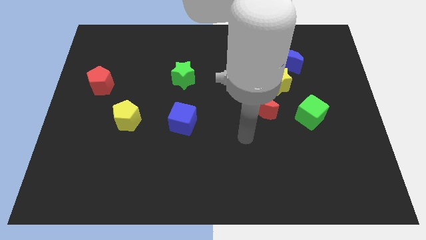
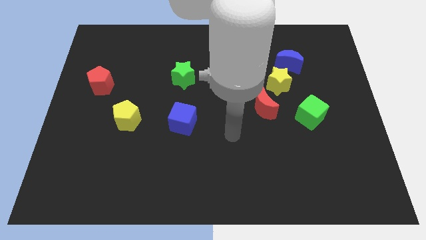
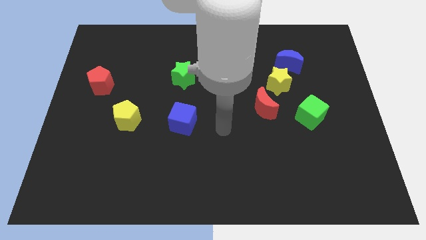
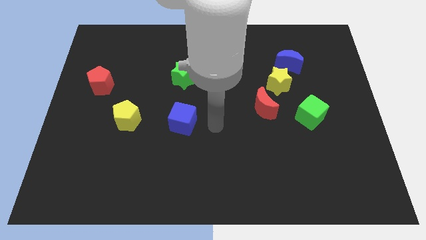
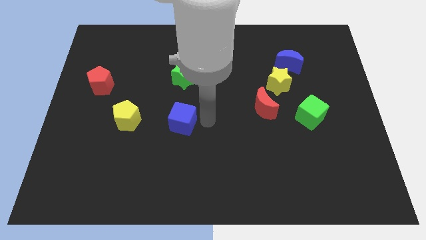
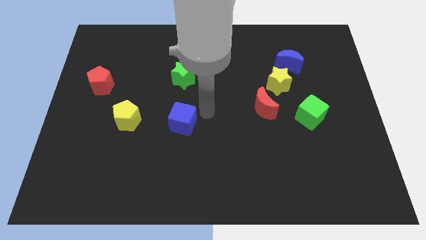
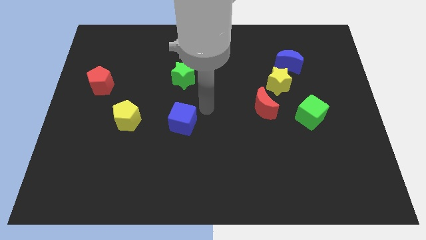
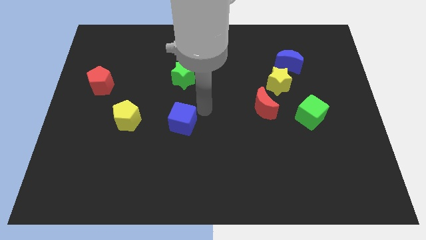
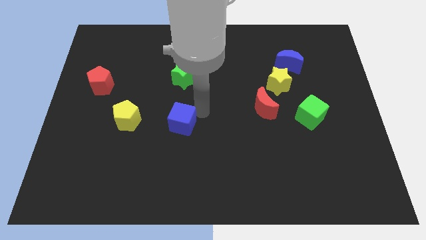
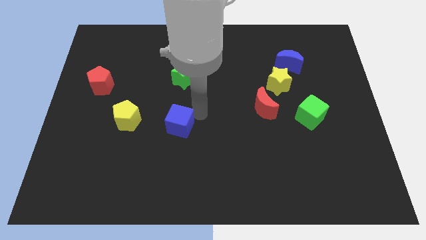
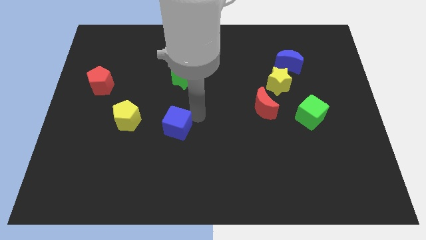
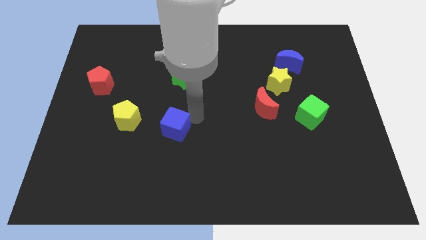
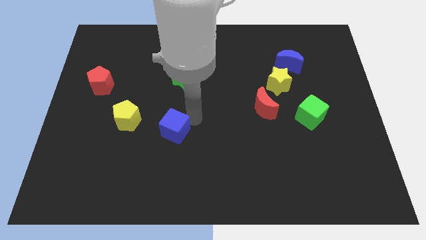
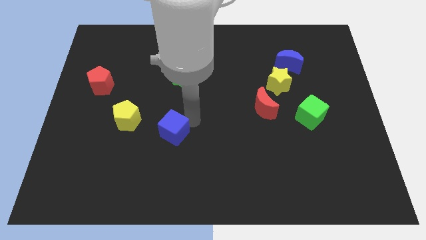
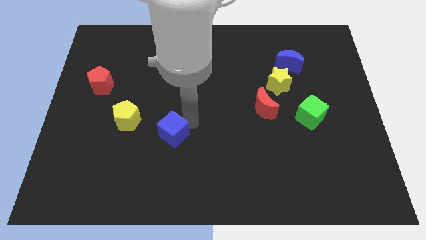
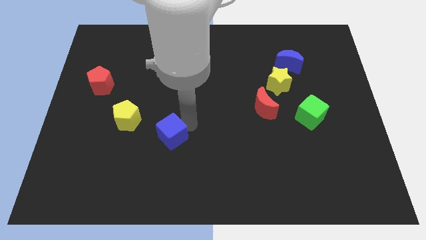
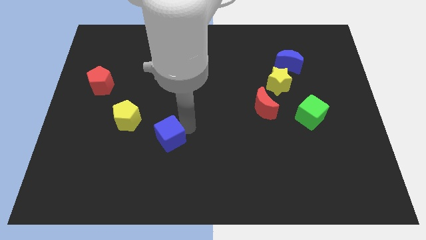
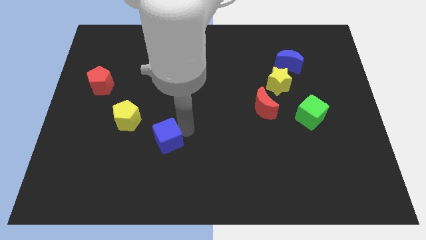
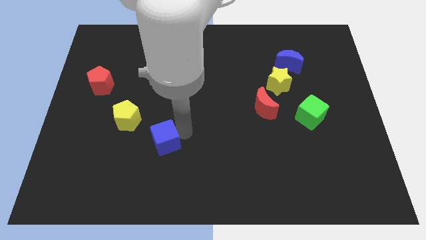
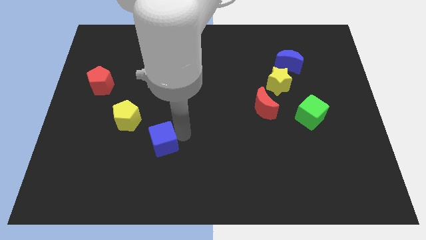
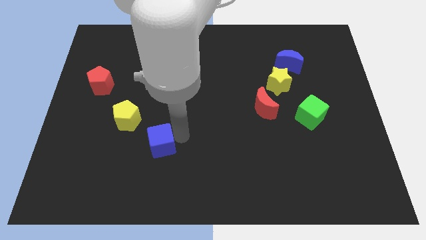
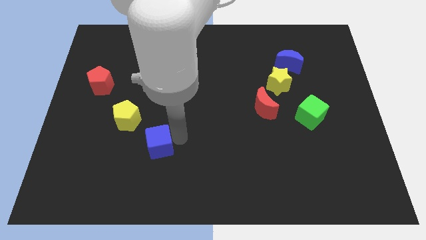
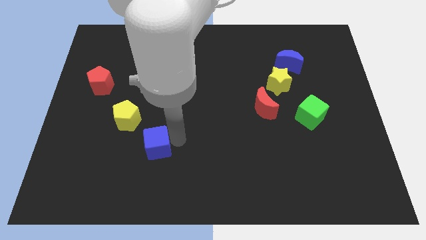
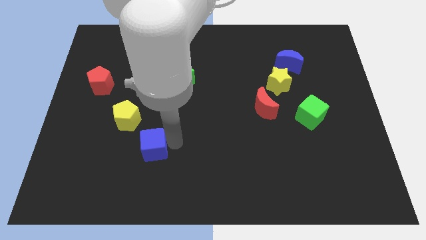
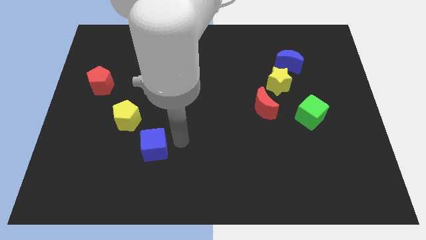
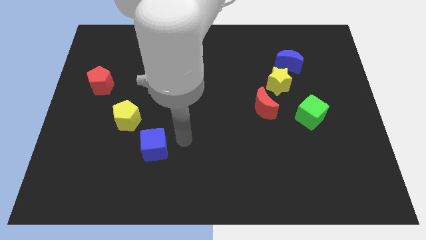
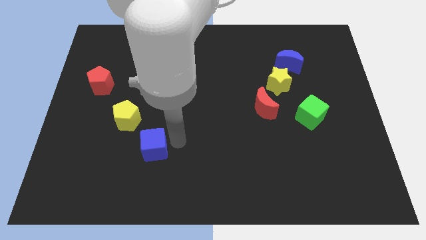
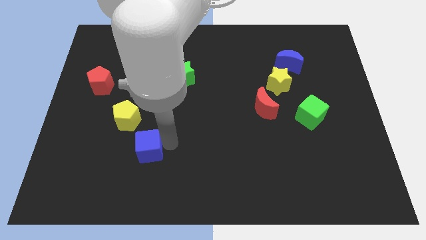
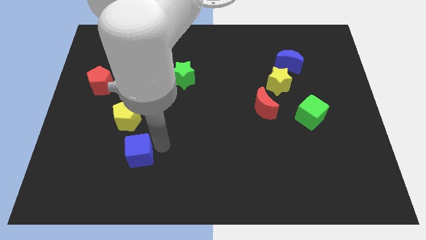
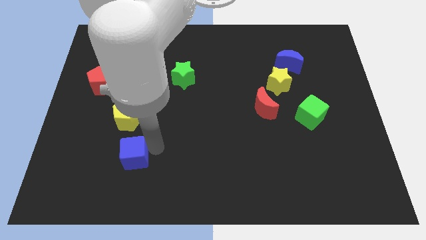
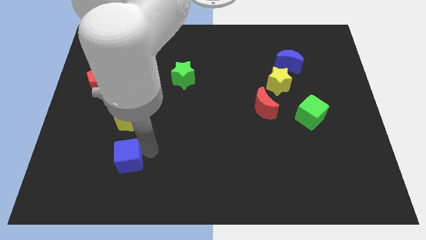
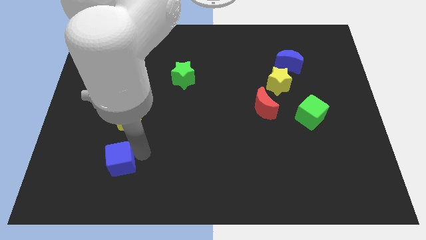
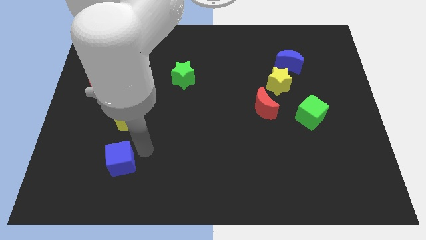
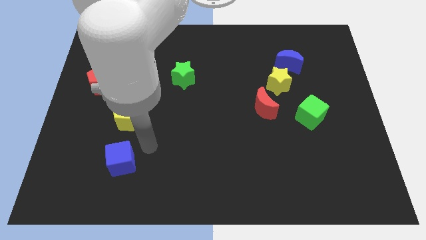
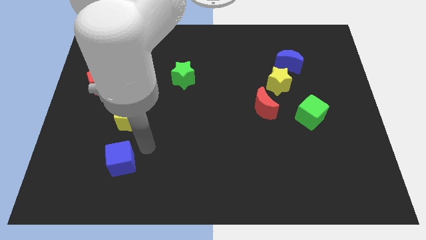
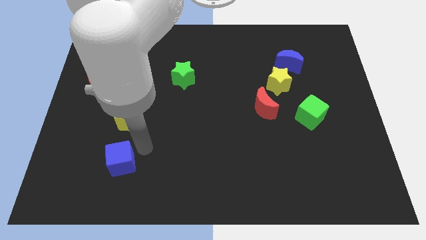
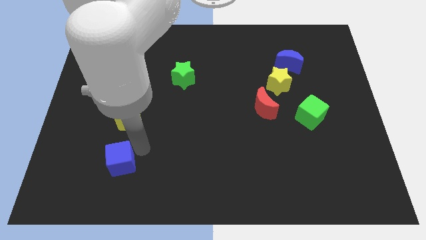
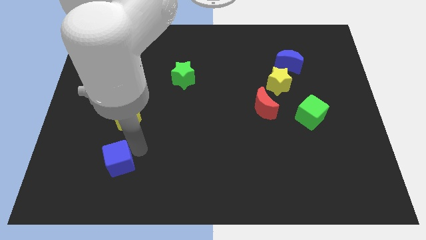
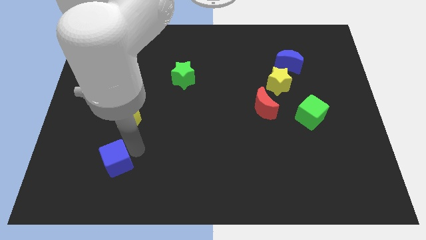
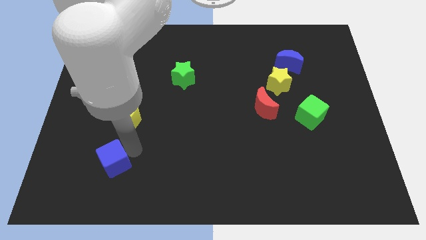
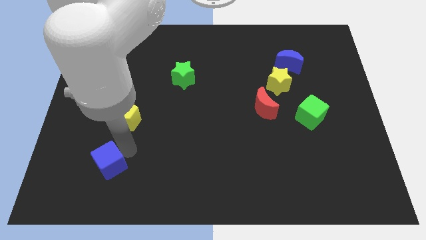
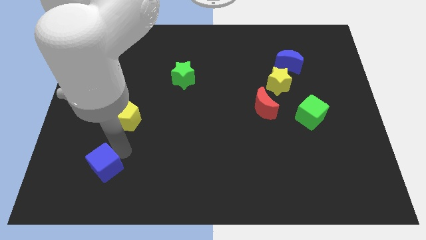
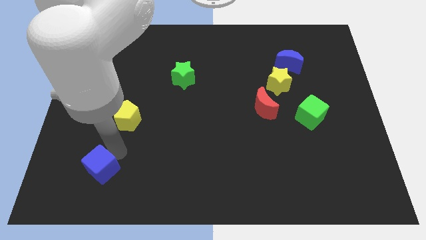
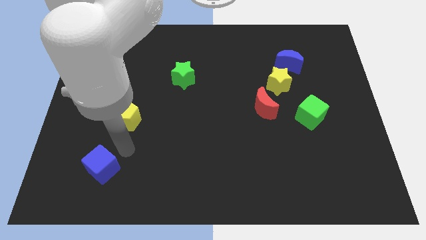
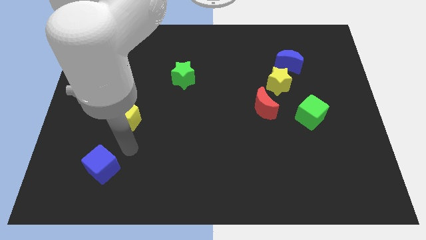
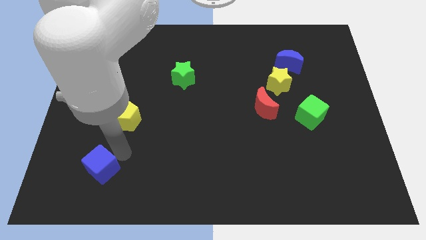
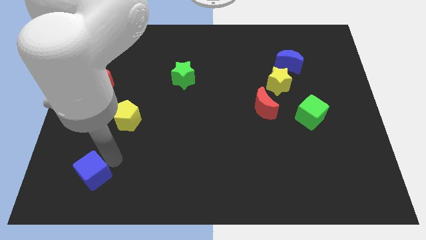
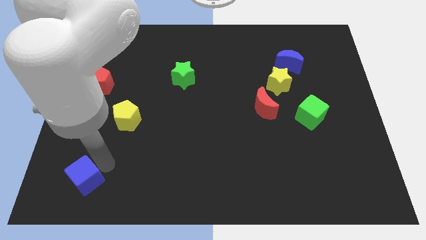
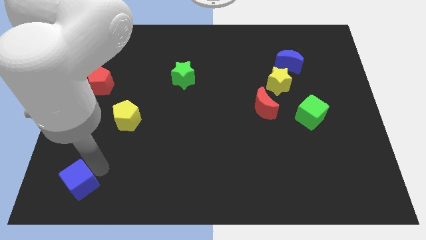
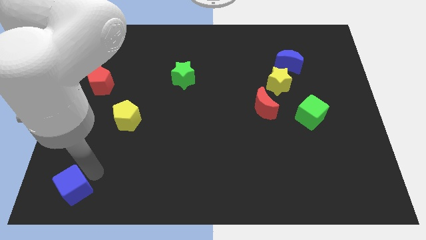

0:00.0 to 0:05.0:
put the blue cube to the bottom left of the board

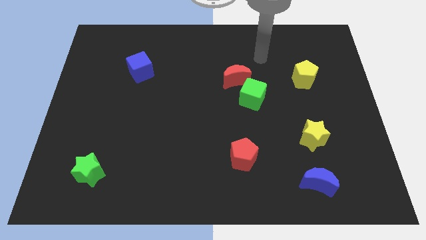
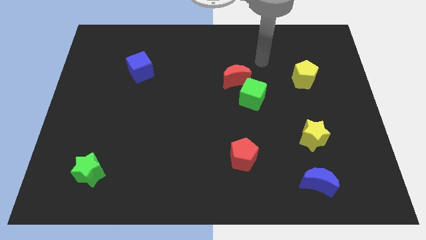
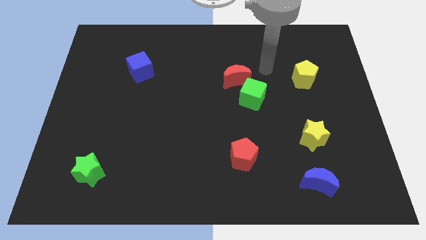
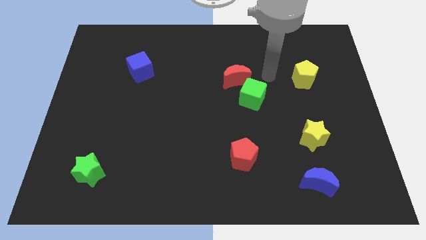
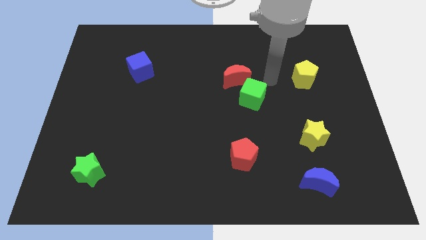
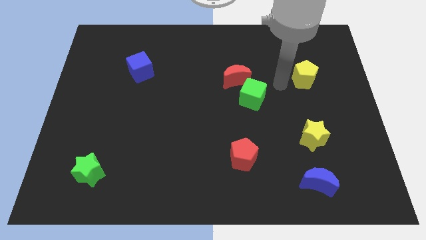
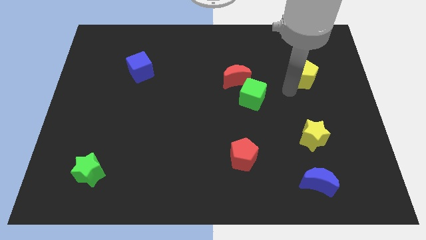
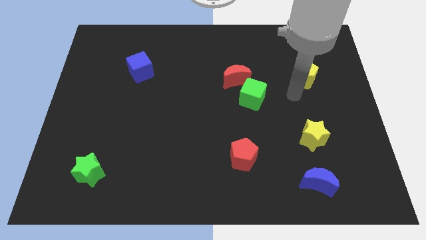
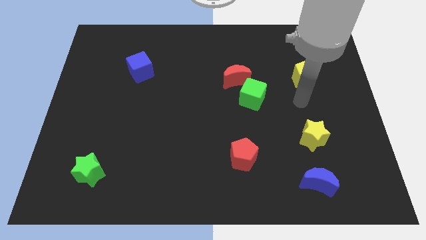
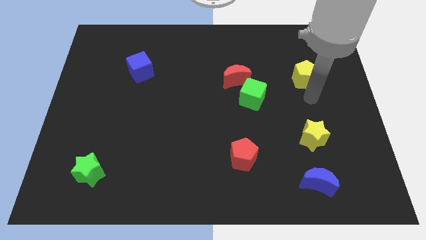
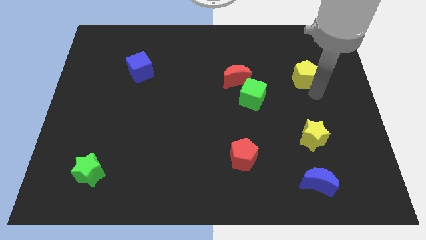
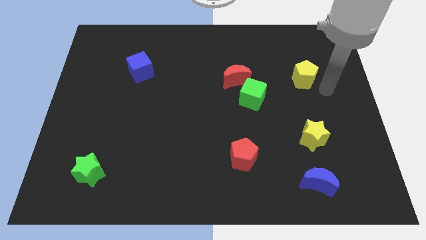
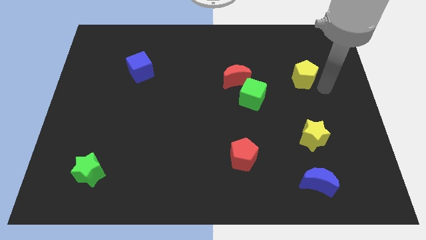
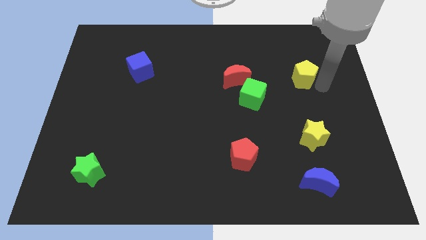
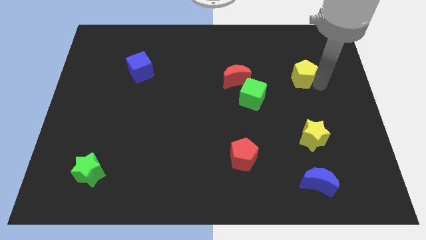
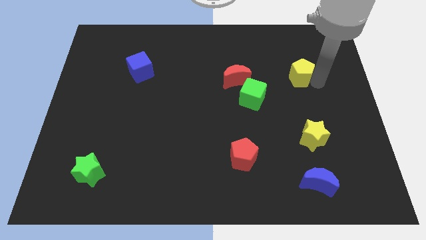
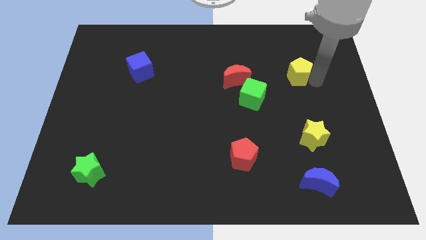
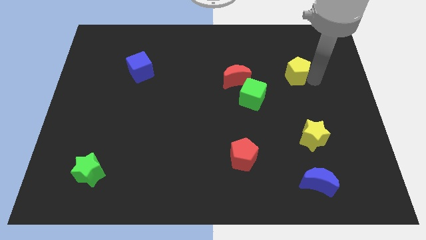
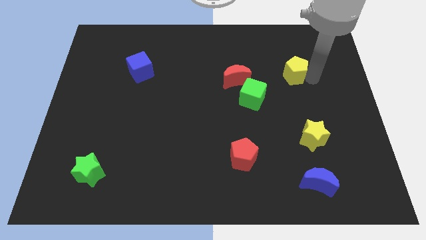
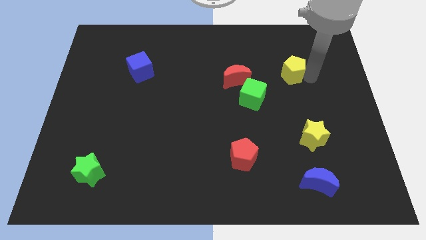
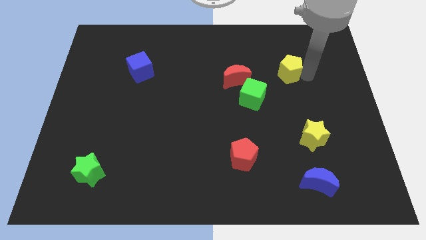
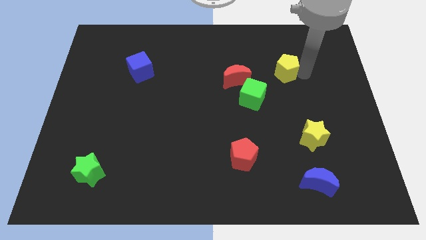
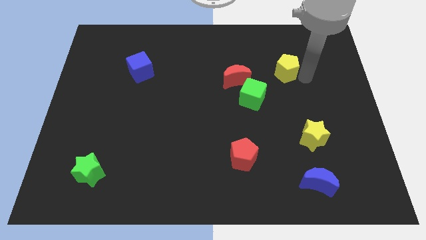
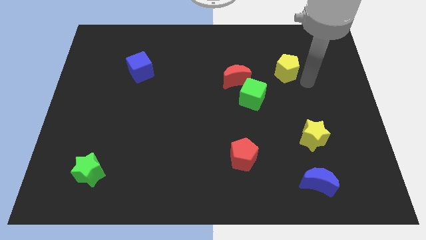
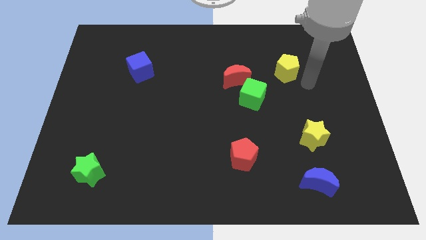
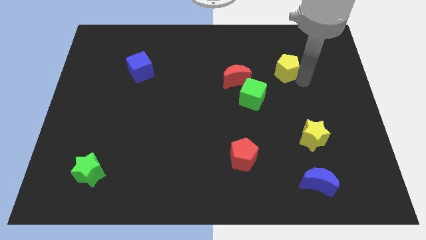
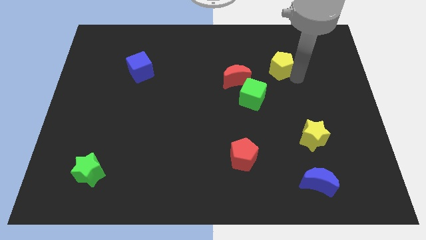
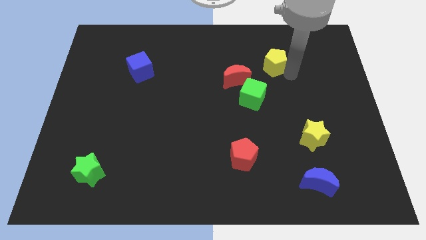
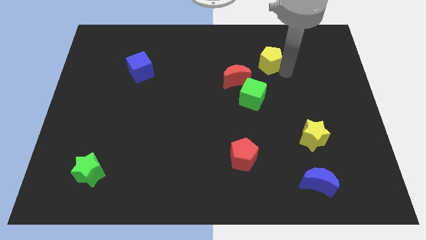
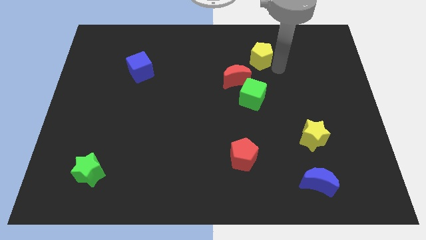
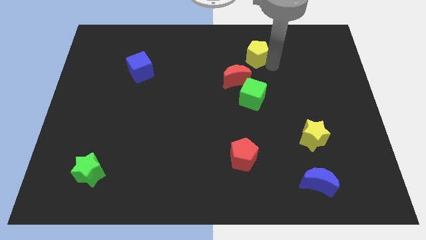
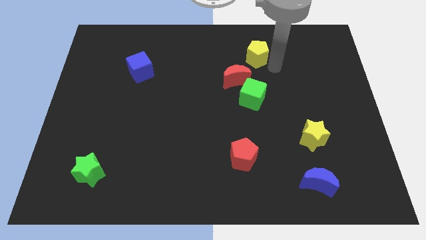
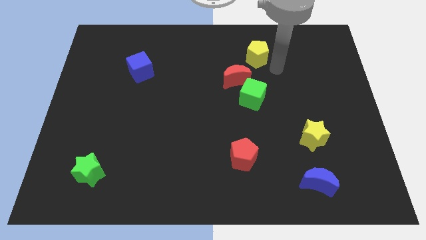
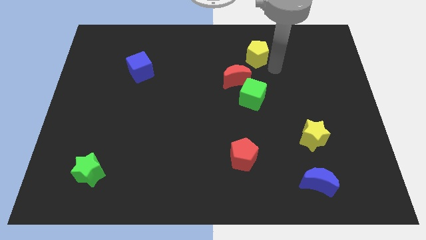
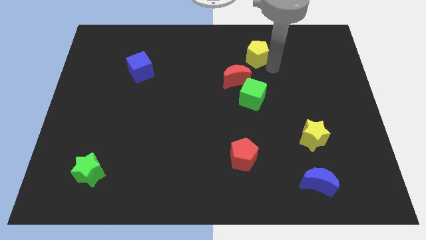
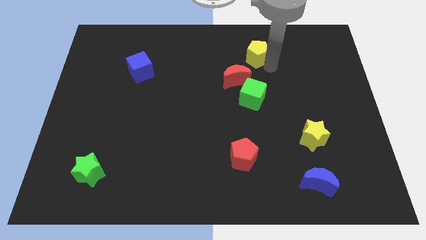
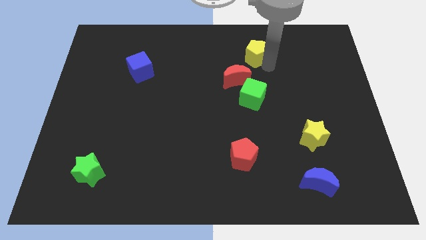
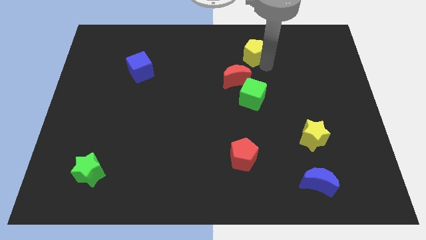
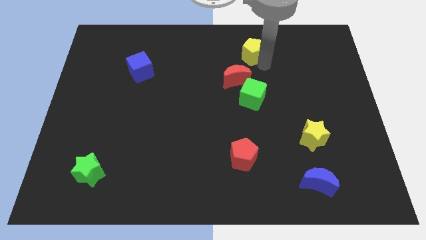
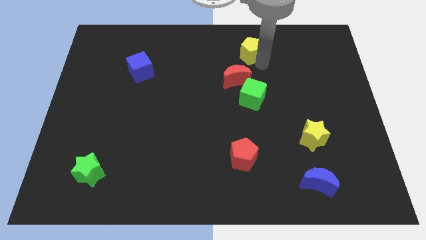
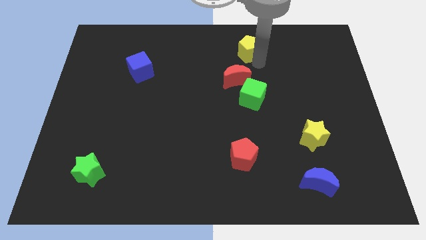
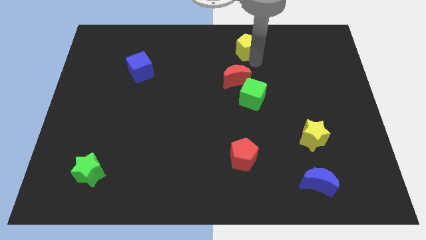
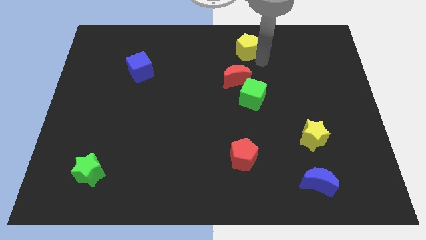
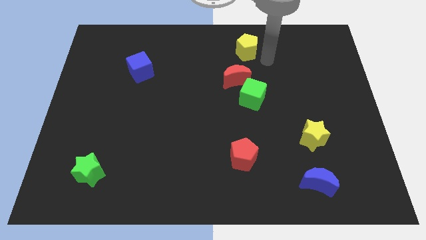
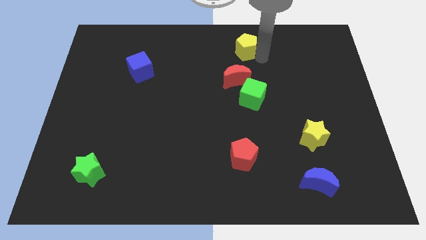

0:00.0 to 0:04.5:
put the yellow pentagon to the towards your base
